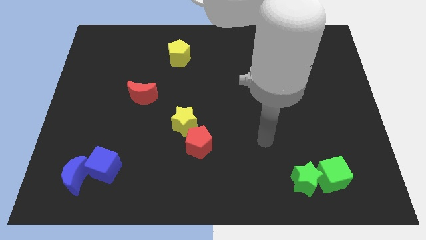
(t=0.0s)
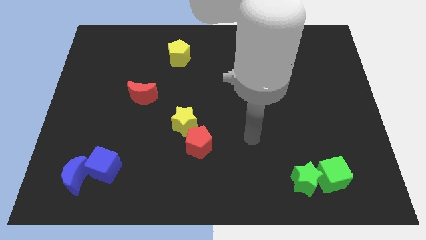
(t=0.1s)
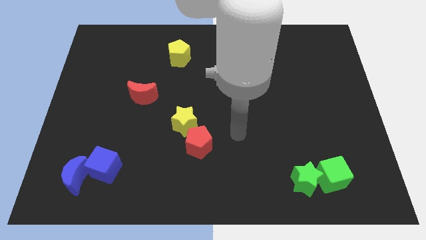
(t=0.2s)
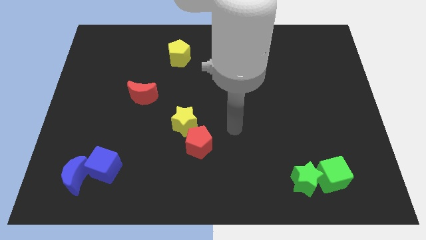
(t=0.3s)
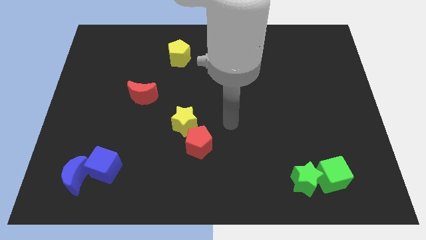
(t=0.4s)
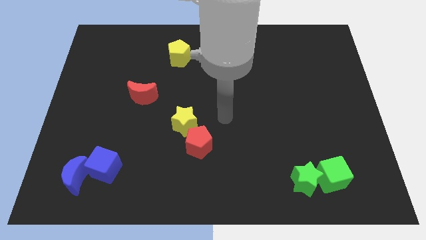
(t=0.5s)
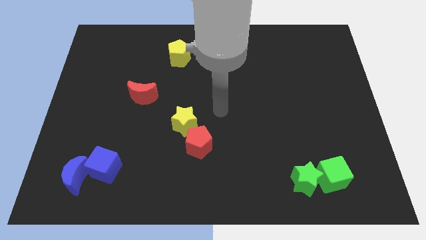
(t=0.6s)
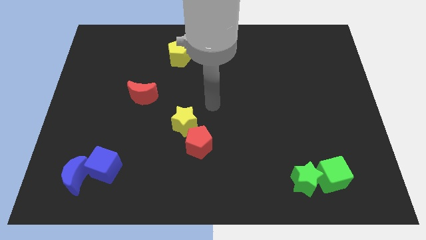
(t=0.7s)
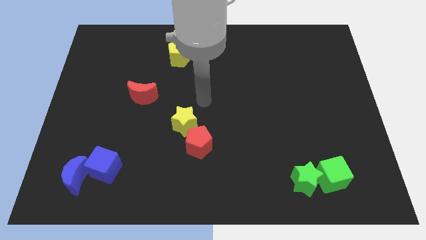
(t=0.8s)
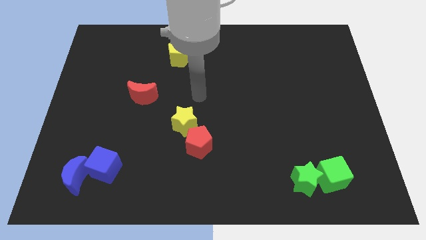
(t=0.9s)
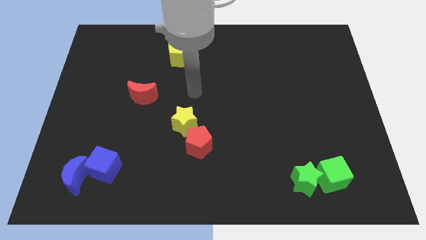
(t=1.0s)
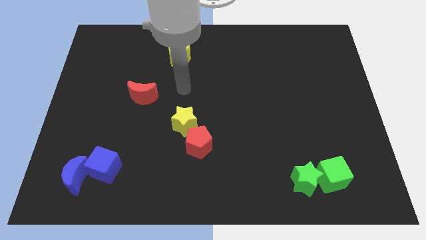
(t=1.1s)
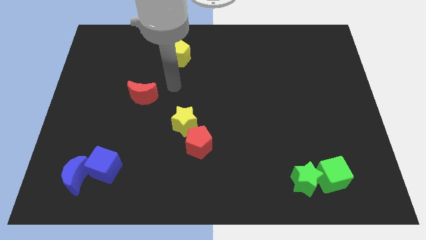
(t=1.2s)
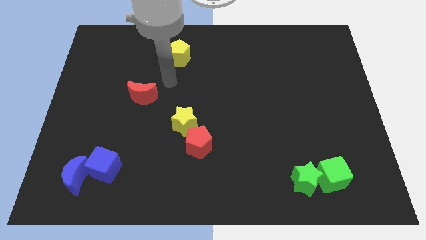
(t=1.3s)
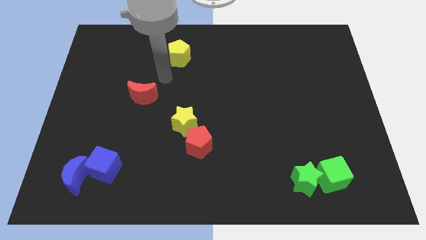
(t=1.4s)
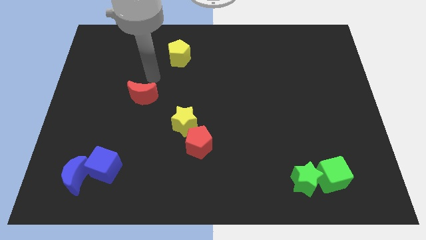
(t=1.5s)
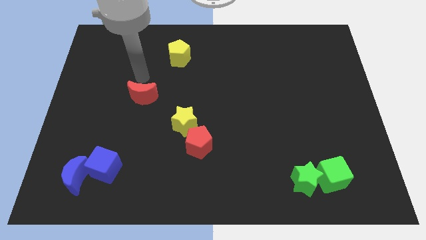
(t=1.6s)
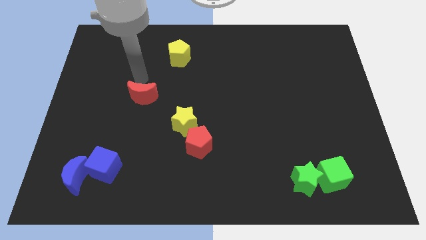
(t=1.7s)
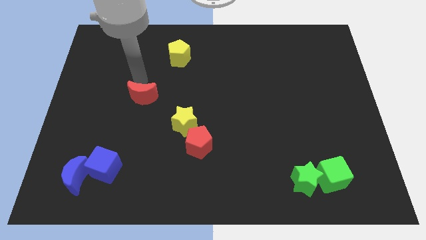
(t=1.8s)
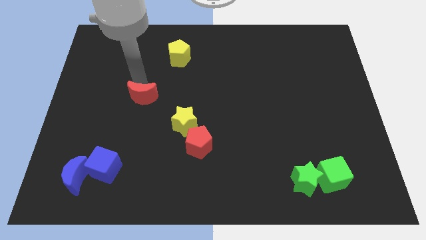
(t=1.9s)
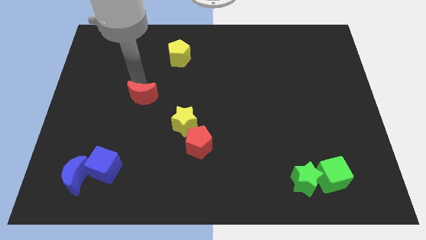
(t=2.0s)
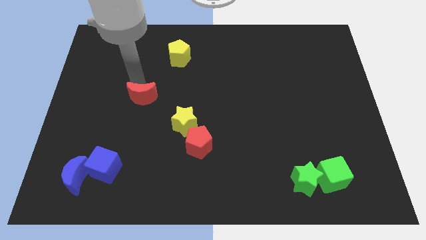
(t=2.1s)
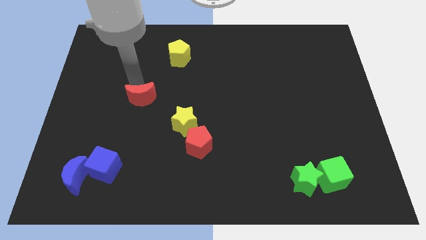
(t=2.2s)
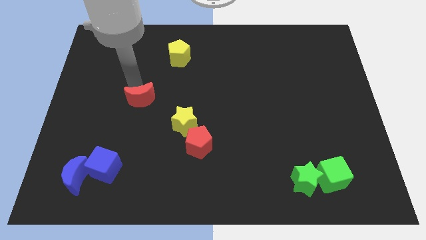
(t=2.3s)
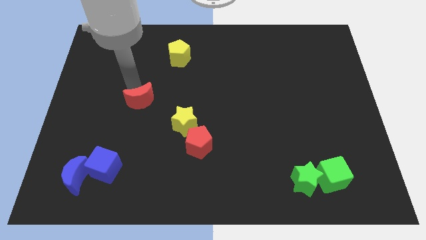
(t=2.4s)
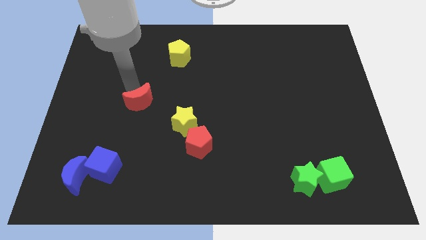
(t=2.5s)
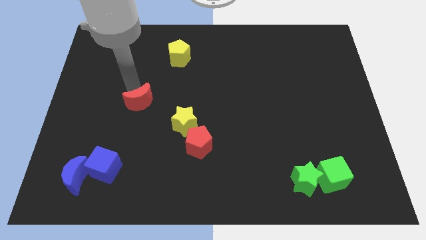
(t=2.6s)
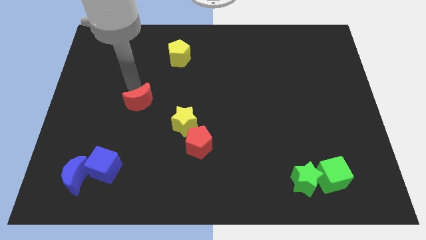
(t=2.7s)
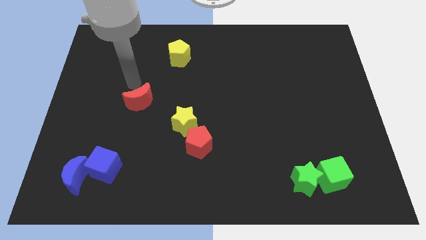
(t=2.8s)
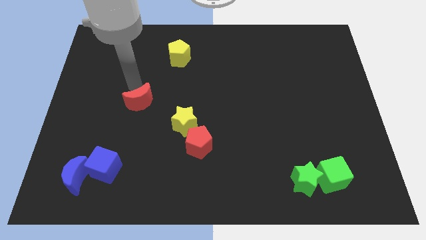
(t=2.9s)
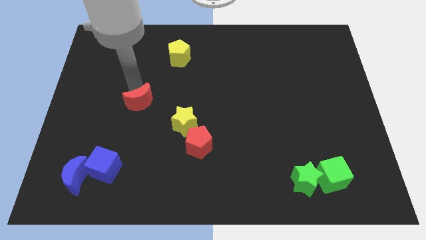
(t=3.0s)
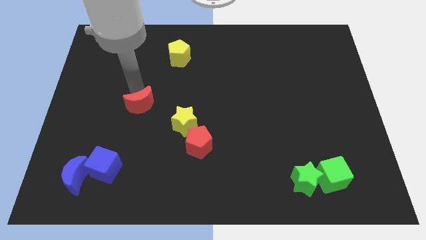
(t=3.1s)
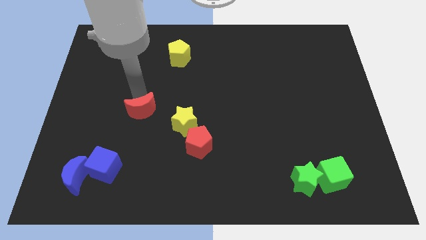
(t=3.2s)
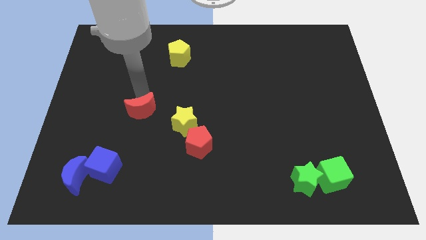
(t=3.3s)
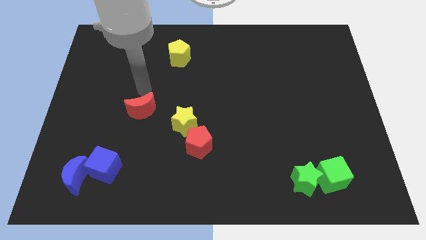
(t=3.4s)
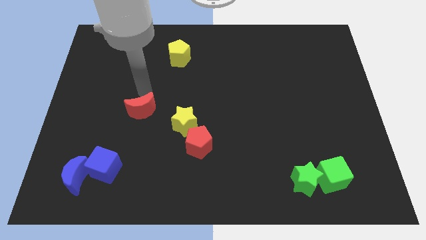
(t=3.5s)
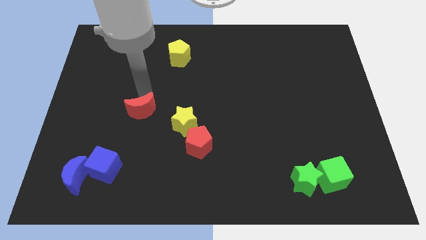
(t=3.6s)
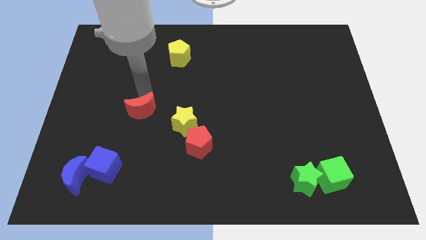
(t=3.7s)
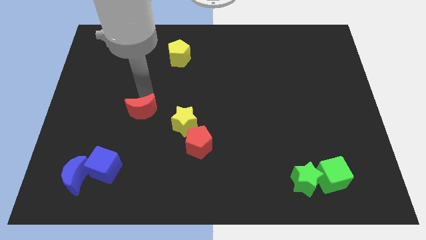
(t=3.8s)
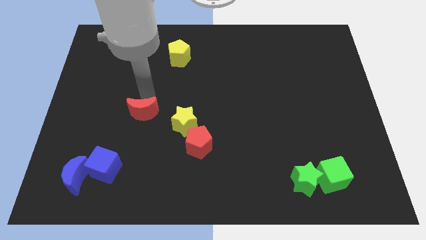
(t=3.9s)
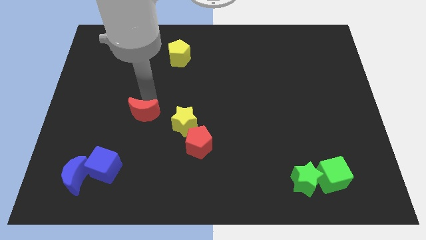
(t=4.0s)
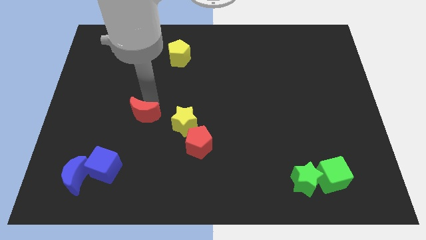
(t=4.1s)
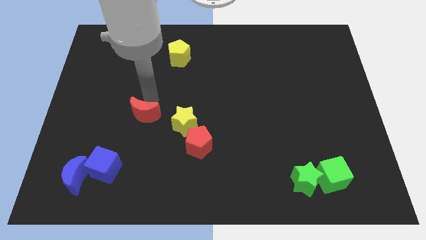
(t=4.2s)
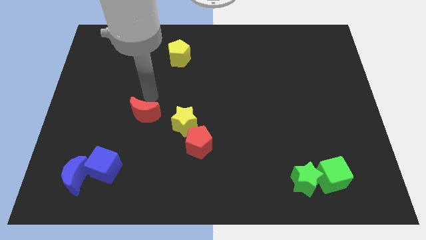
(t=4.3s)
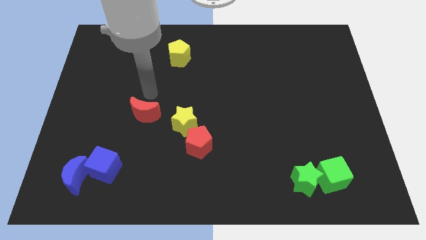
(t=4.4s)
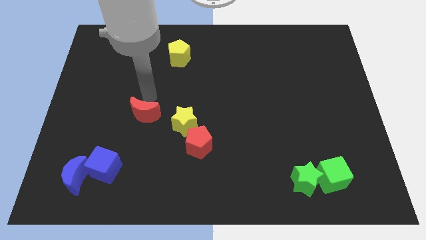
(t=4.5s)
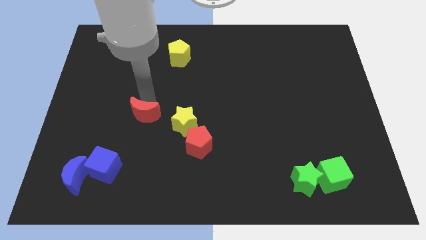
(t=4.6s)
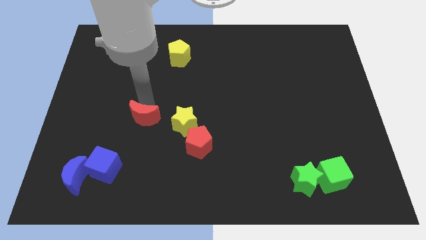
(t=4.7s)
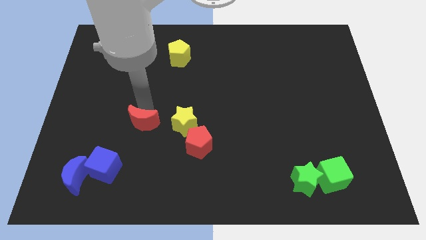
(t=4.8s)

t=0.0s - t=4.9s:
slightly push the red moon down

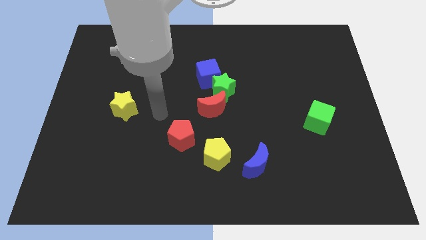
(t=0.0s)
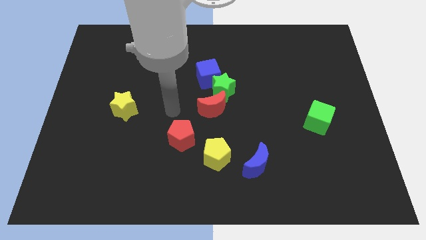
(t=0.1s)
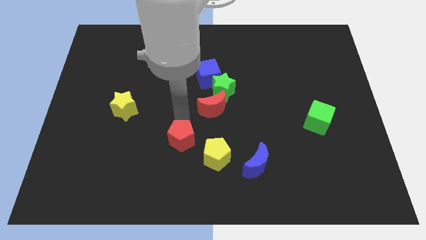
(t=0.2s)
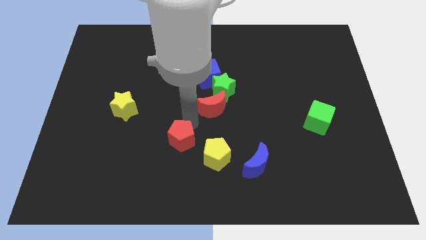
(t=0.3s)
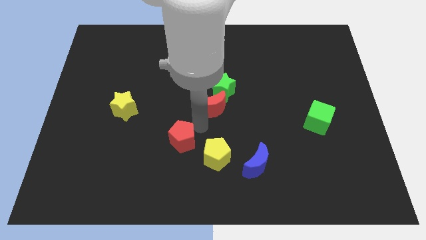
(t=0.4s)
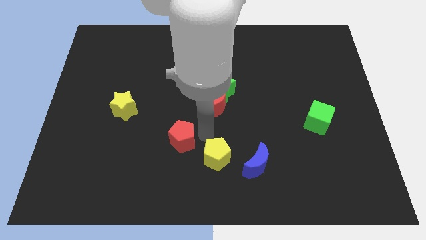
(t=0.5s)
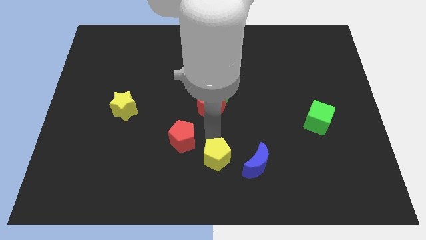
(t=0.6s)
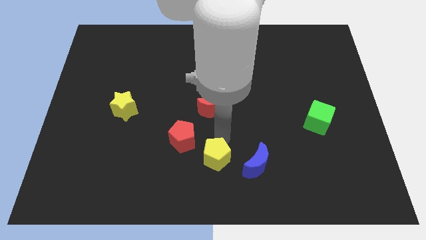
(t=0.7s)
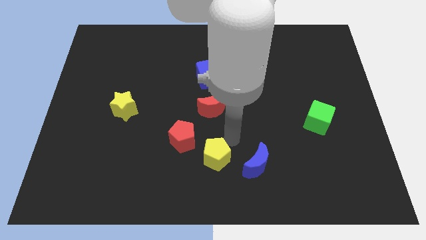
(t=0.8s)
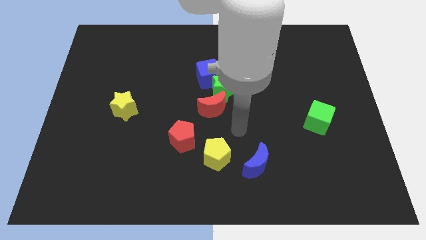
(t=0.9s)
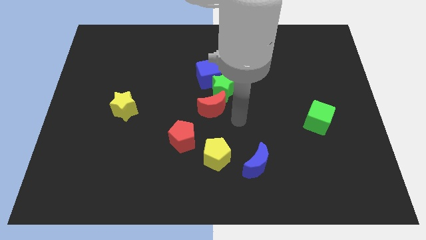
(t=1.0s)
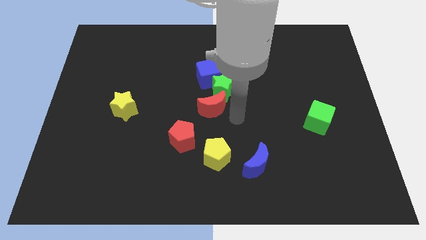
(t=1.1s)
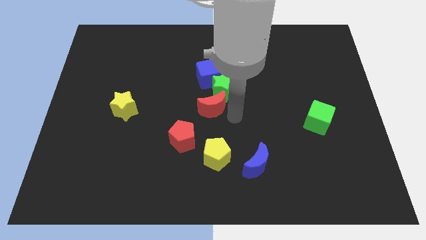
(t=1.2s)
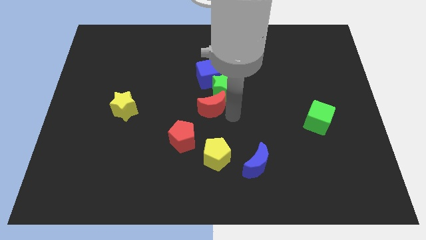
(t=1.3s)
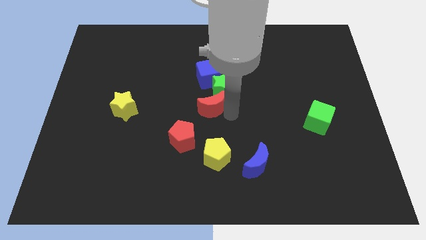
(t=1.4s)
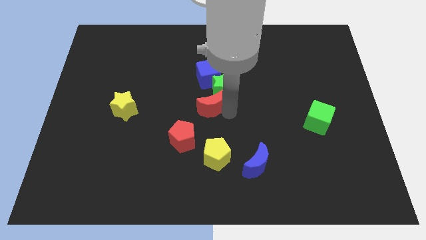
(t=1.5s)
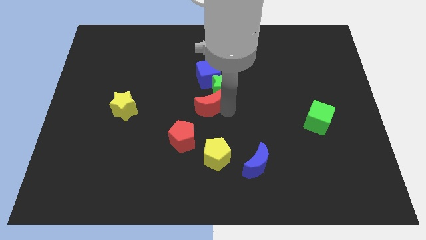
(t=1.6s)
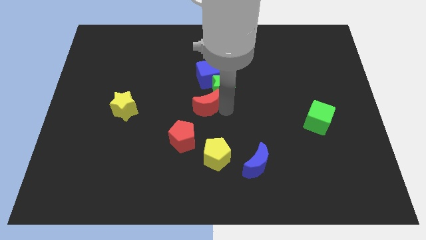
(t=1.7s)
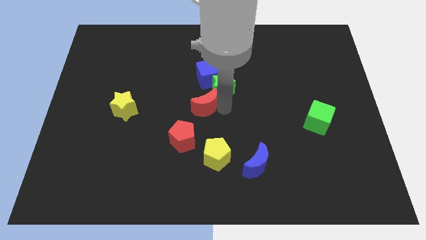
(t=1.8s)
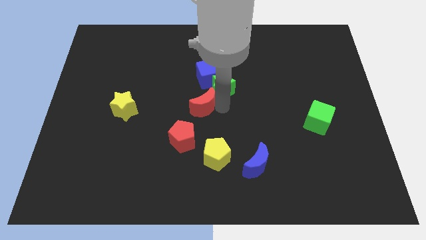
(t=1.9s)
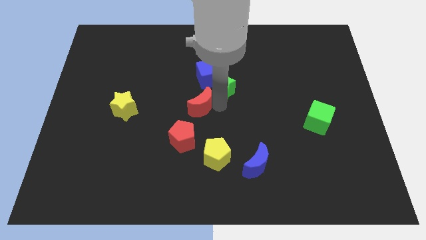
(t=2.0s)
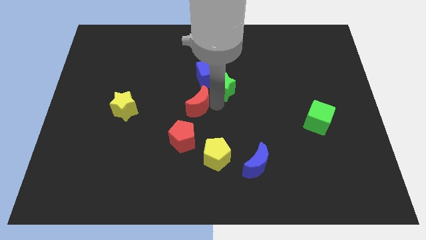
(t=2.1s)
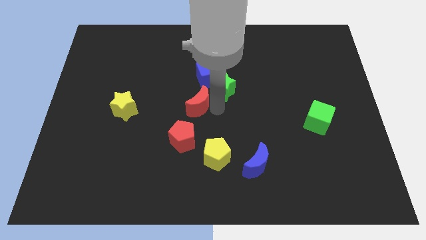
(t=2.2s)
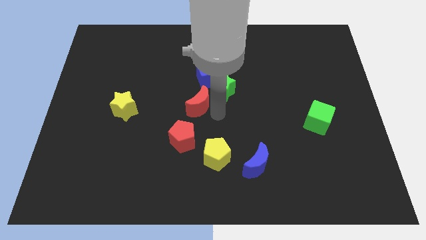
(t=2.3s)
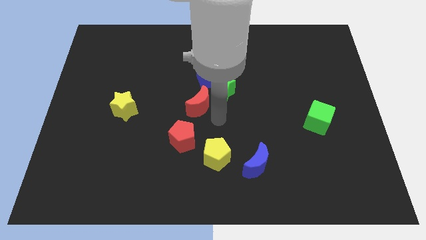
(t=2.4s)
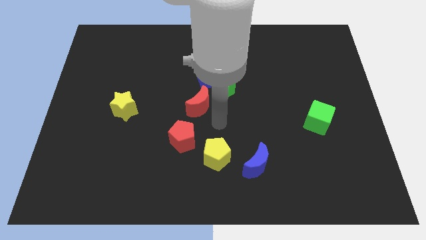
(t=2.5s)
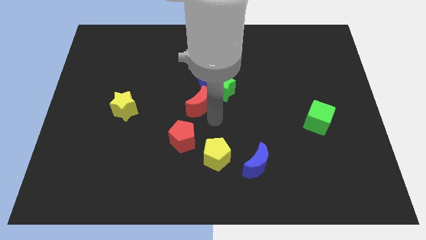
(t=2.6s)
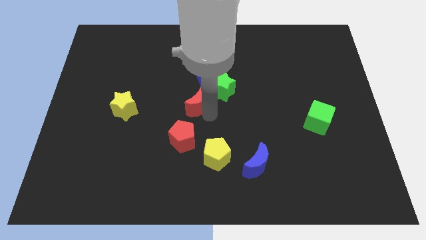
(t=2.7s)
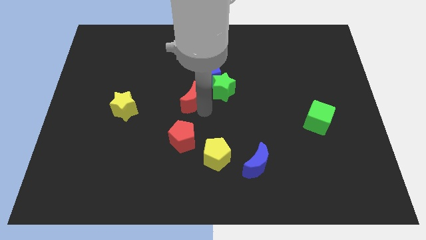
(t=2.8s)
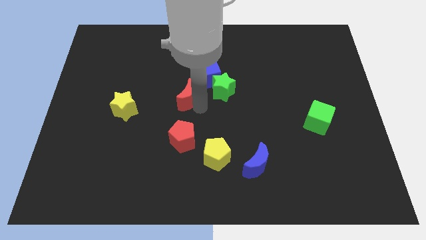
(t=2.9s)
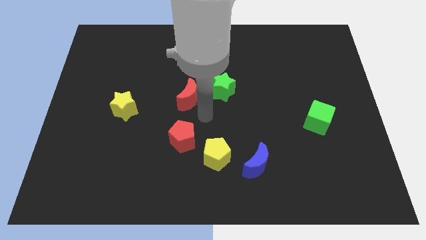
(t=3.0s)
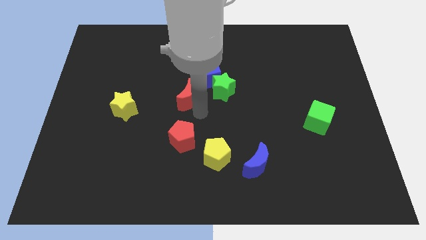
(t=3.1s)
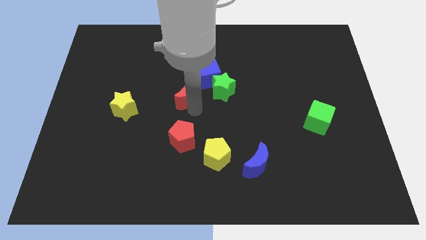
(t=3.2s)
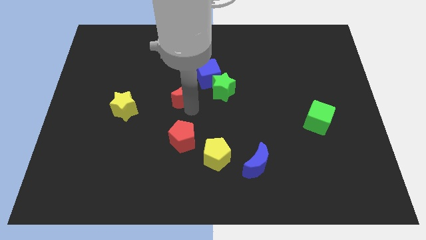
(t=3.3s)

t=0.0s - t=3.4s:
move the red moon a little diagonally upwards and to the left
